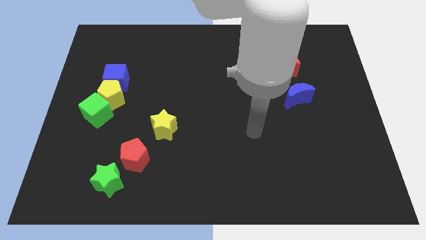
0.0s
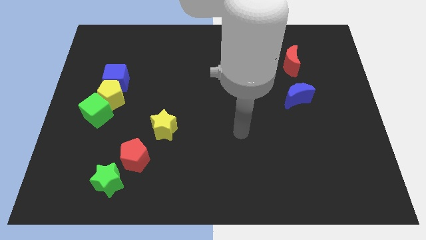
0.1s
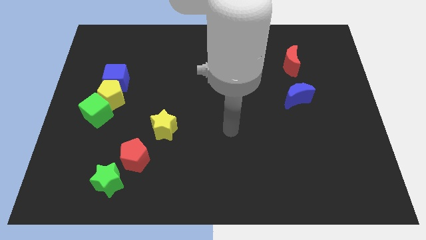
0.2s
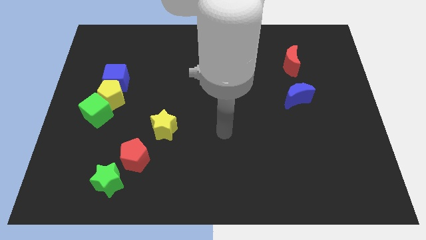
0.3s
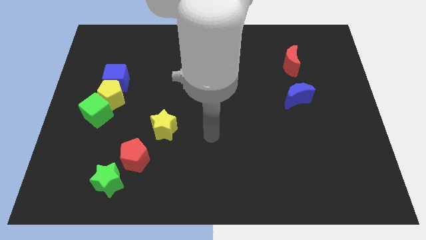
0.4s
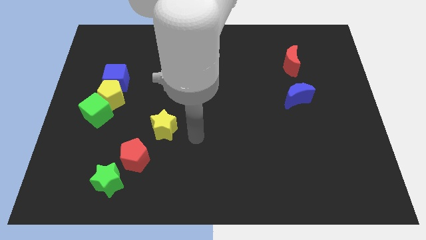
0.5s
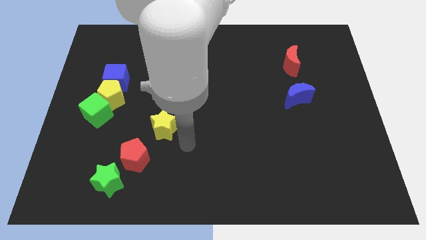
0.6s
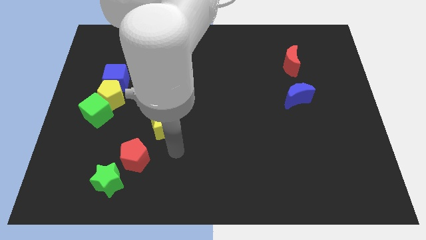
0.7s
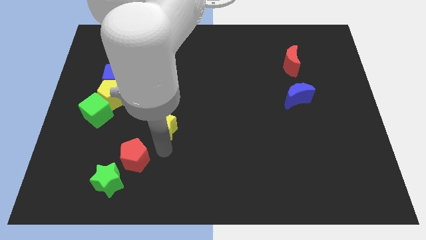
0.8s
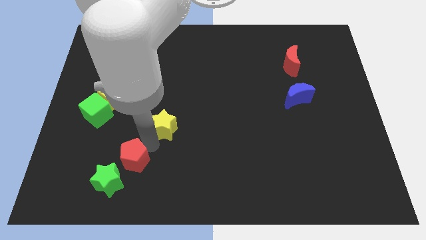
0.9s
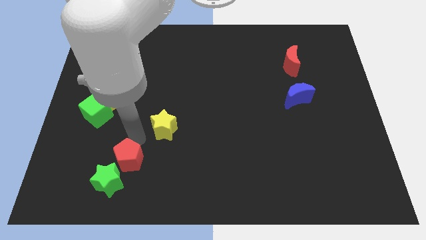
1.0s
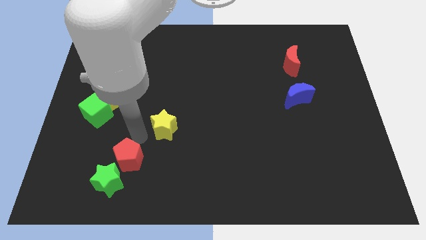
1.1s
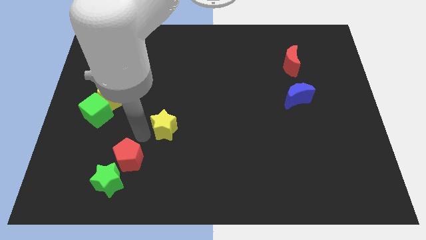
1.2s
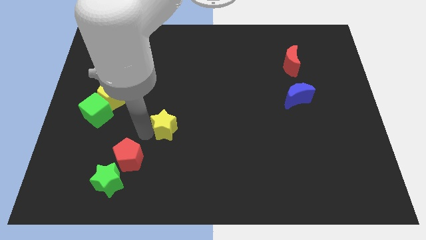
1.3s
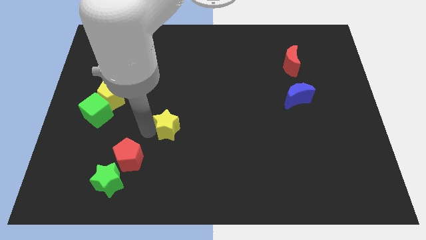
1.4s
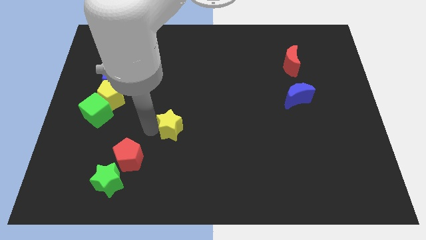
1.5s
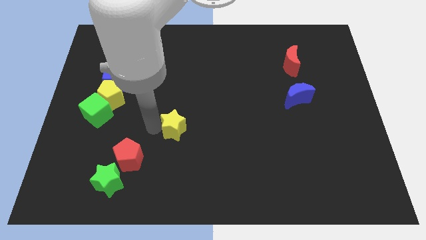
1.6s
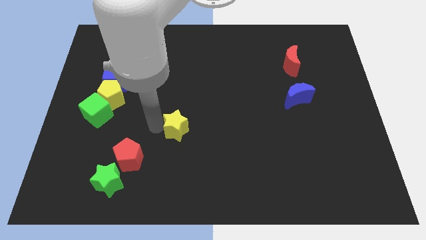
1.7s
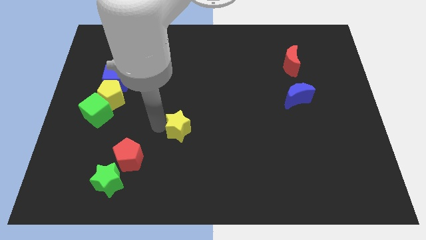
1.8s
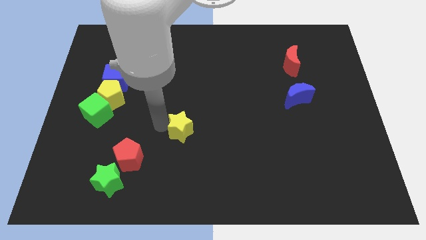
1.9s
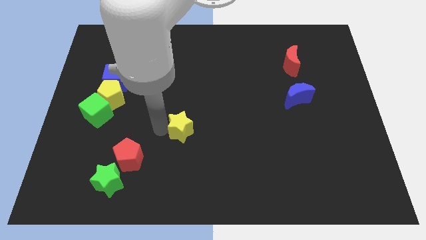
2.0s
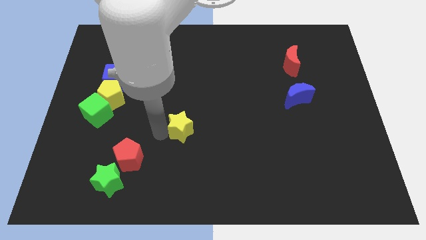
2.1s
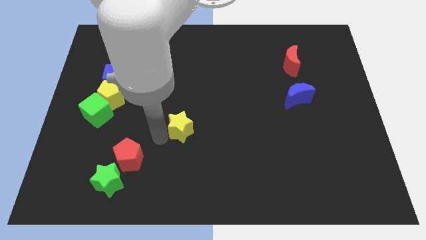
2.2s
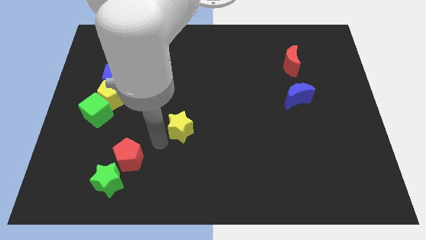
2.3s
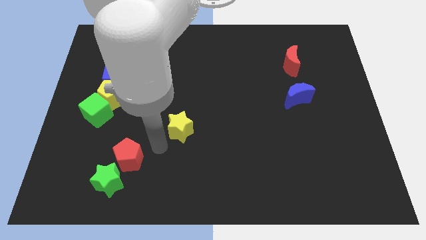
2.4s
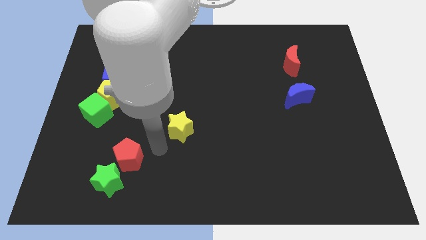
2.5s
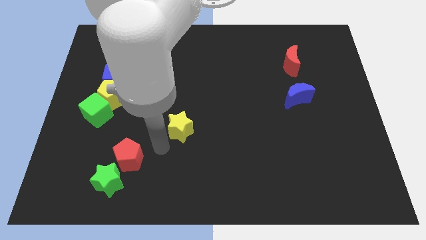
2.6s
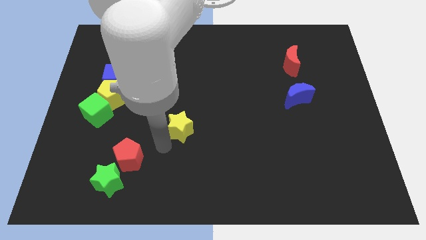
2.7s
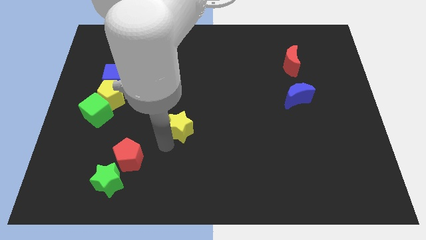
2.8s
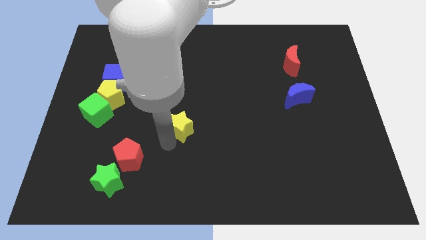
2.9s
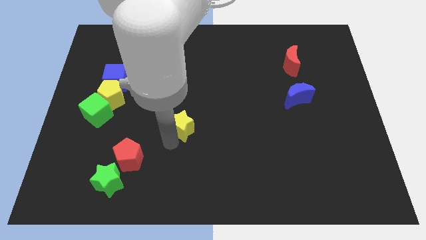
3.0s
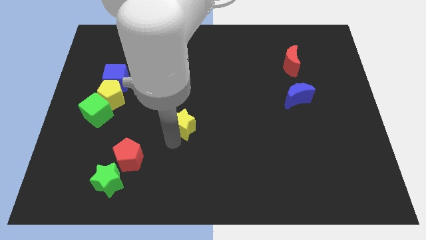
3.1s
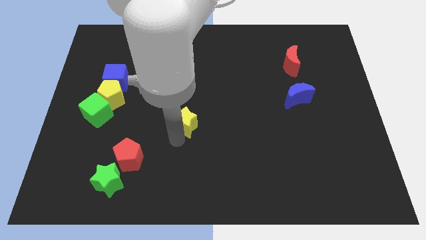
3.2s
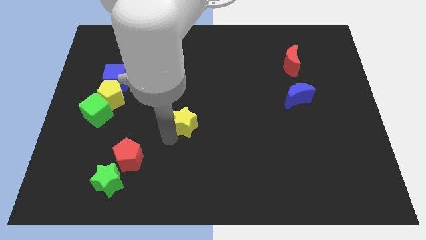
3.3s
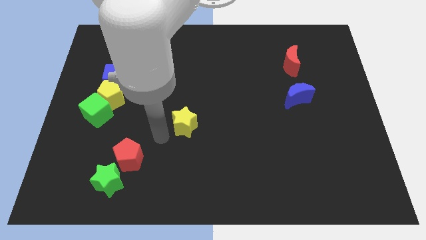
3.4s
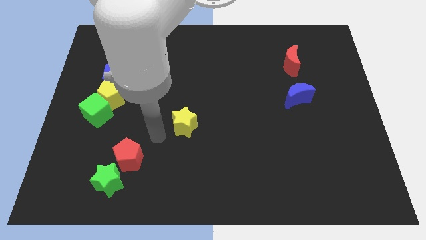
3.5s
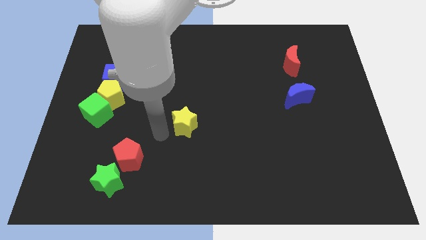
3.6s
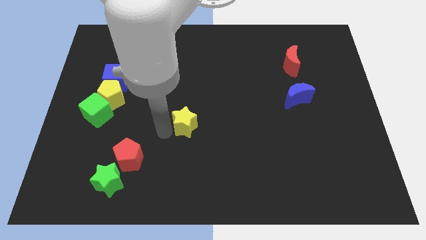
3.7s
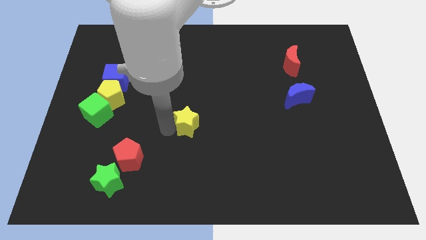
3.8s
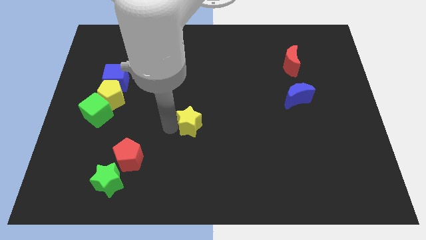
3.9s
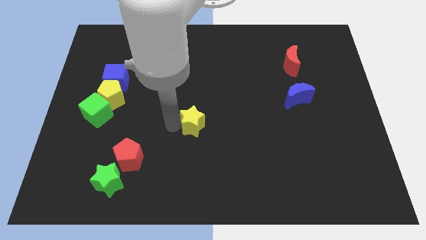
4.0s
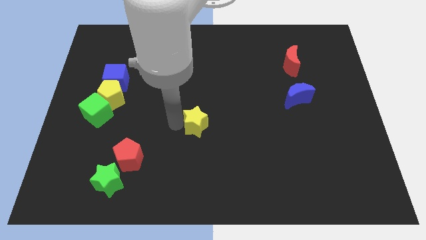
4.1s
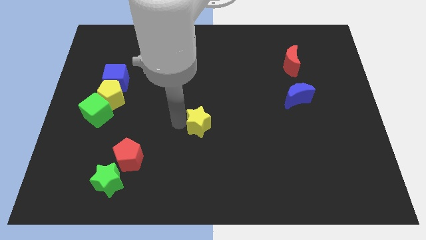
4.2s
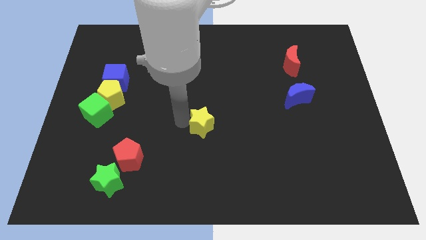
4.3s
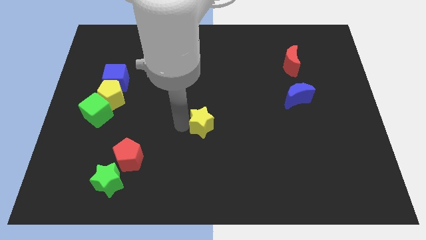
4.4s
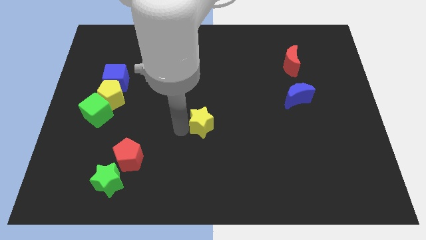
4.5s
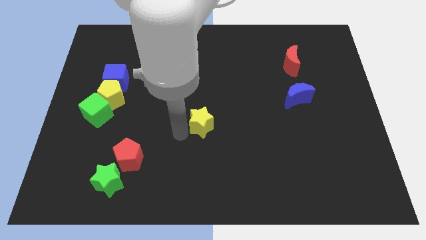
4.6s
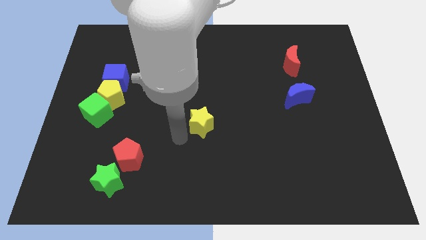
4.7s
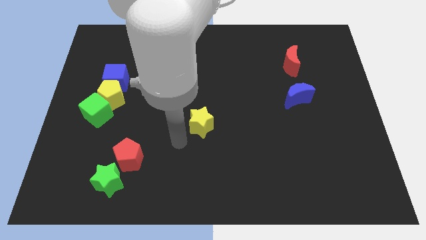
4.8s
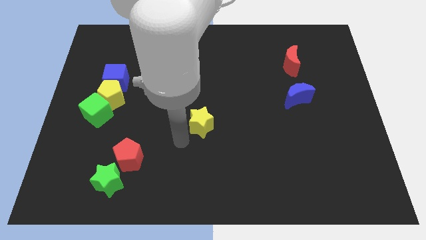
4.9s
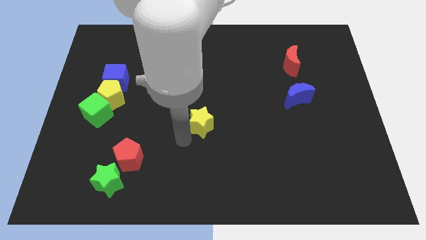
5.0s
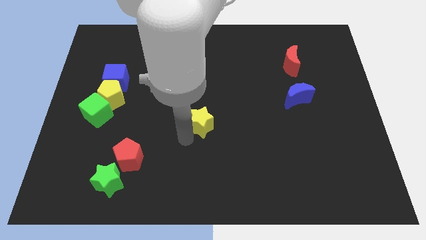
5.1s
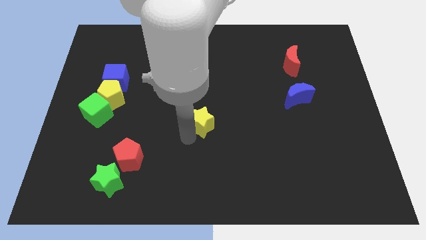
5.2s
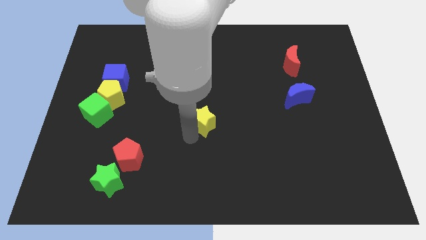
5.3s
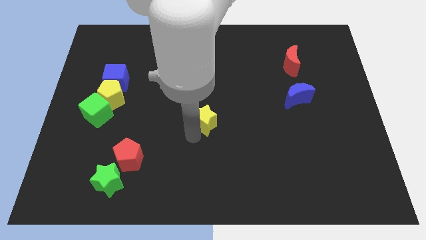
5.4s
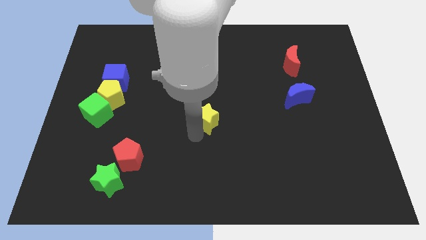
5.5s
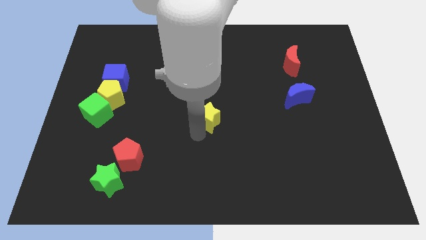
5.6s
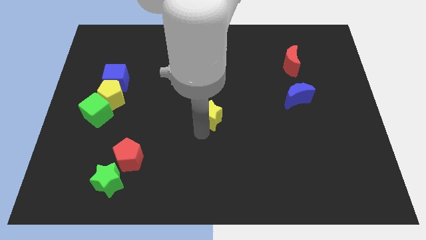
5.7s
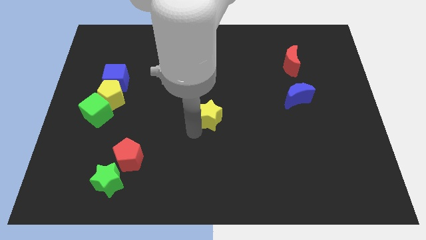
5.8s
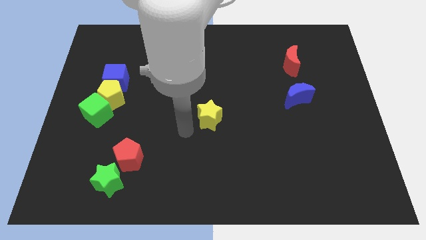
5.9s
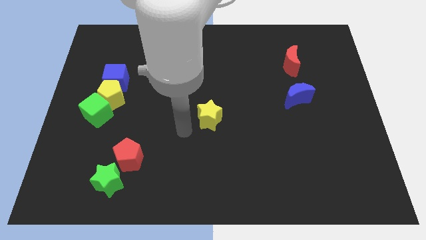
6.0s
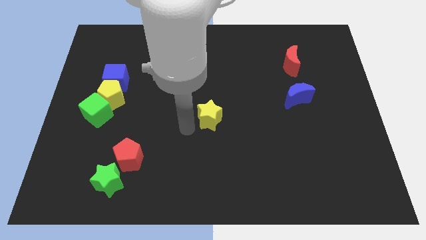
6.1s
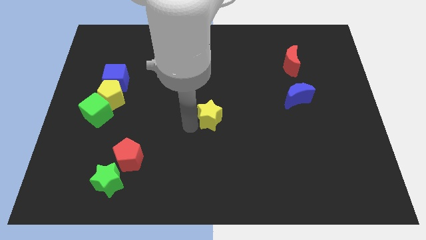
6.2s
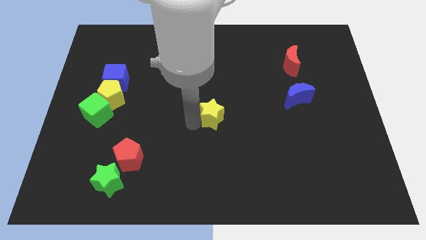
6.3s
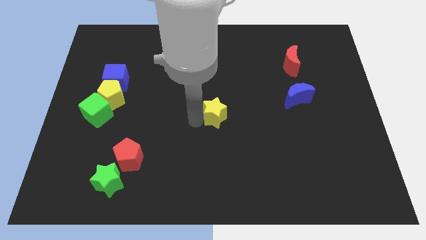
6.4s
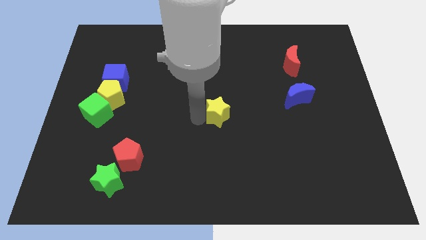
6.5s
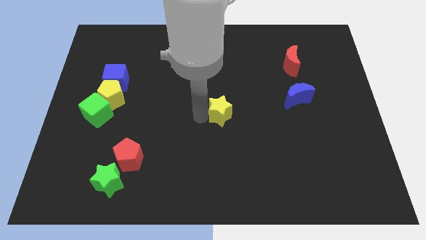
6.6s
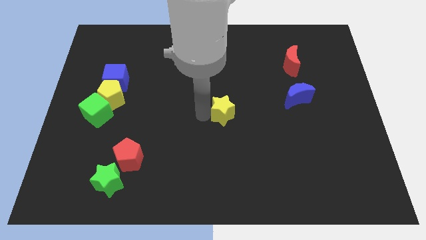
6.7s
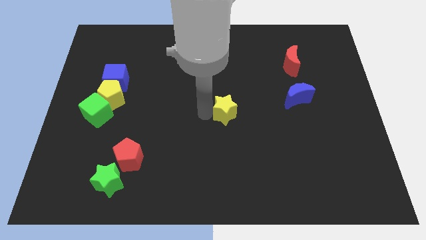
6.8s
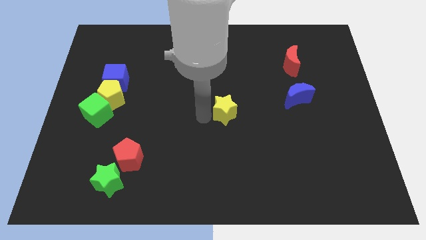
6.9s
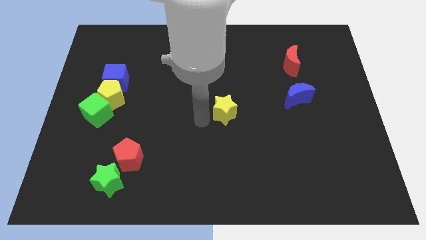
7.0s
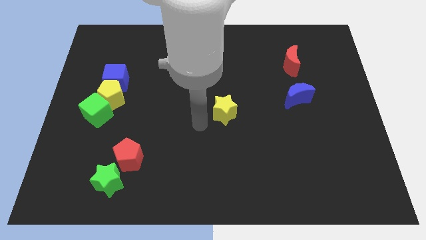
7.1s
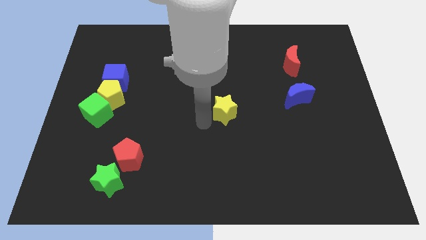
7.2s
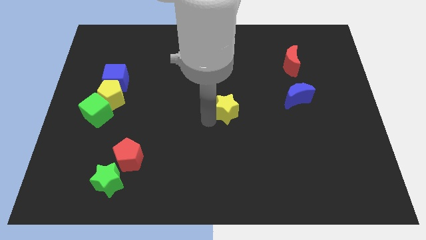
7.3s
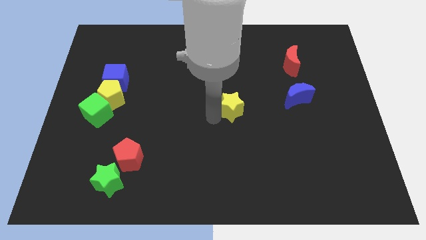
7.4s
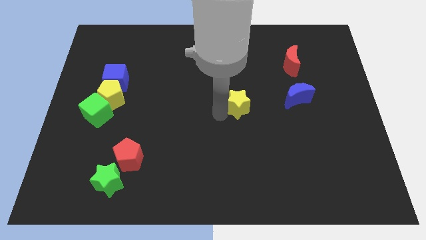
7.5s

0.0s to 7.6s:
move the yellow star just left of the blue moon

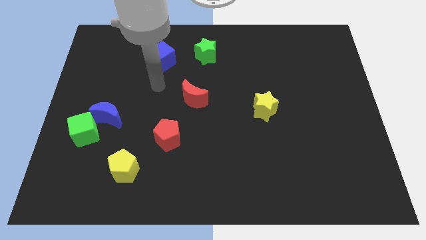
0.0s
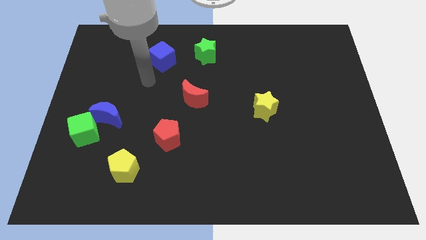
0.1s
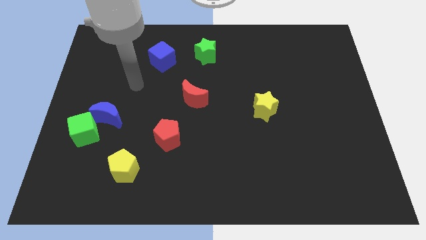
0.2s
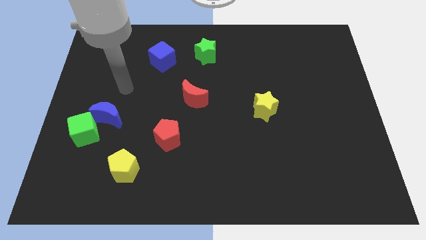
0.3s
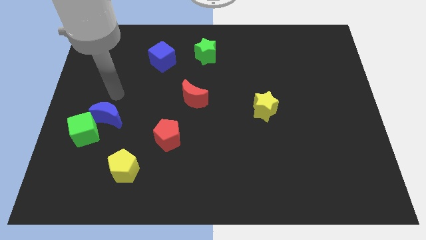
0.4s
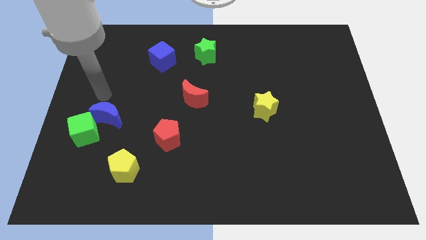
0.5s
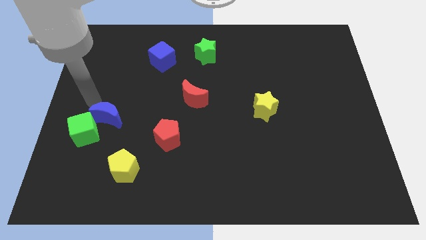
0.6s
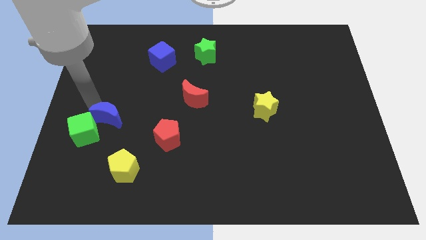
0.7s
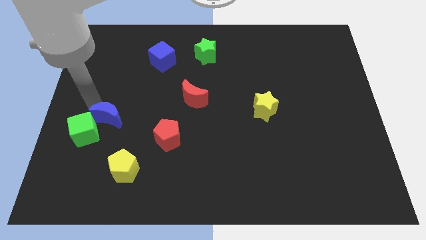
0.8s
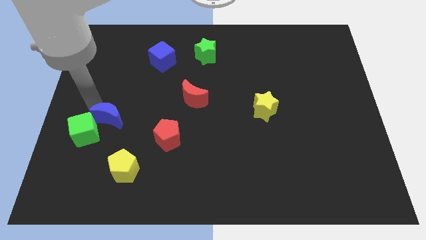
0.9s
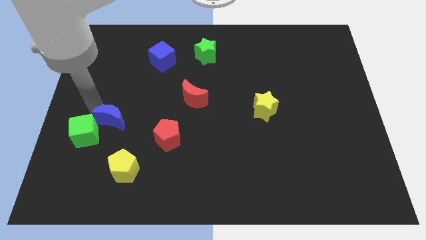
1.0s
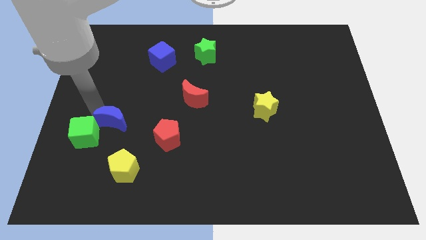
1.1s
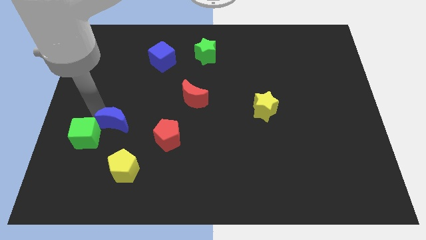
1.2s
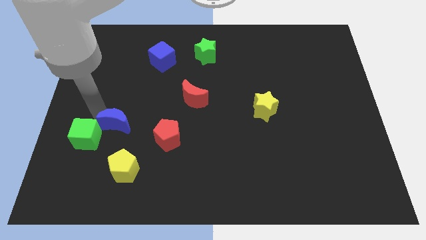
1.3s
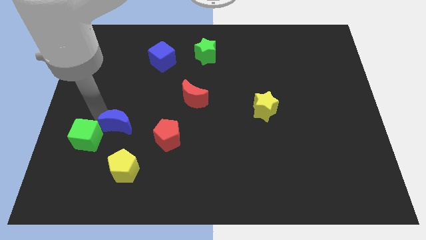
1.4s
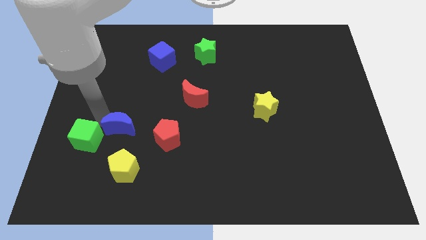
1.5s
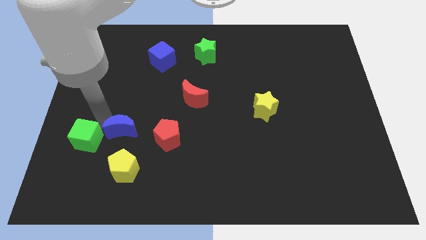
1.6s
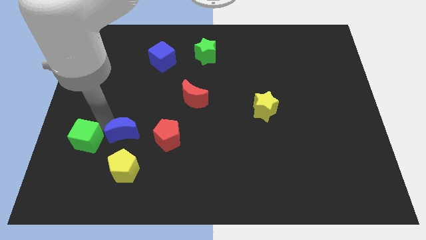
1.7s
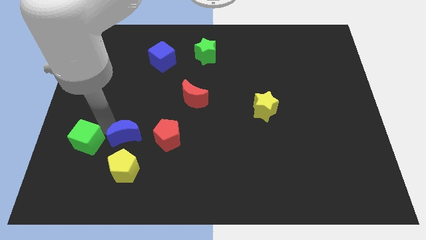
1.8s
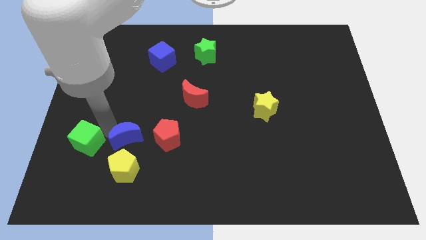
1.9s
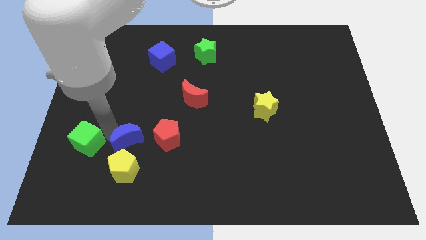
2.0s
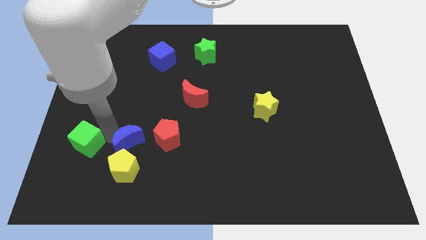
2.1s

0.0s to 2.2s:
push the blue moon diagonally up and to the right of the yellow pentagon
